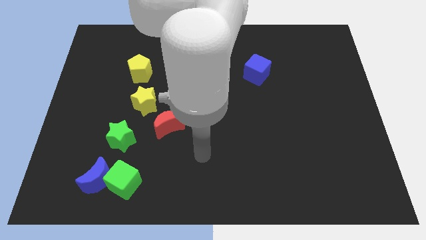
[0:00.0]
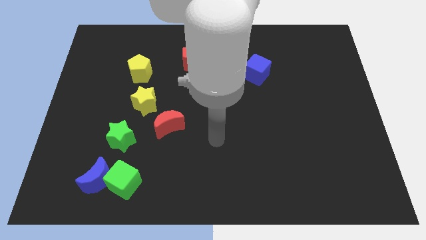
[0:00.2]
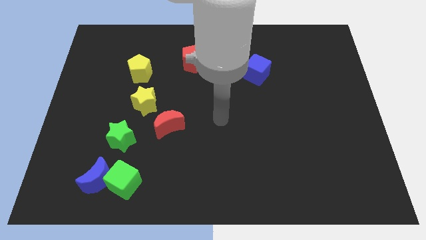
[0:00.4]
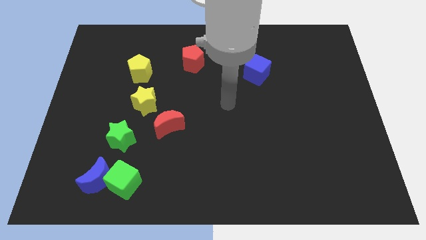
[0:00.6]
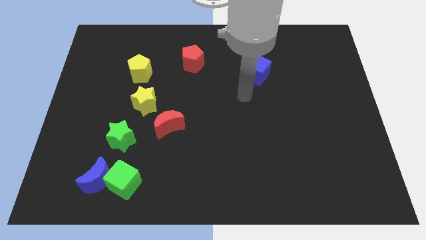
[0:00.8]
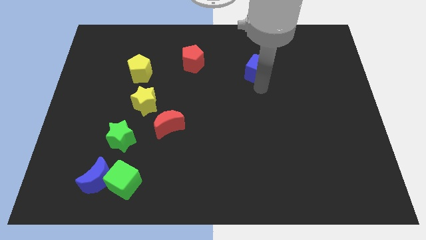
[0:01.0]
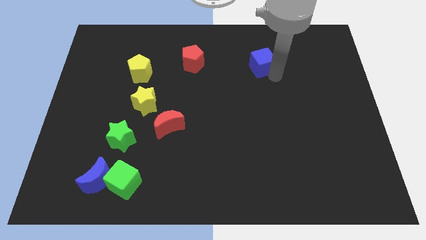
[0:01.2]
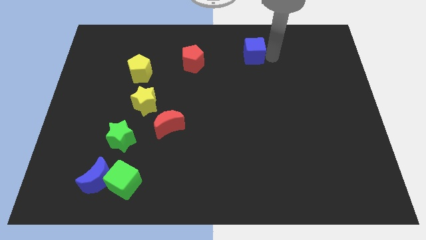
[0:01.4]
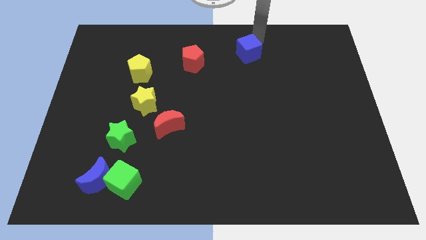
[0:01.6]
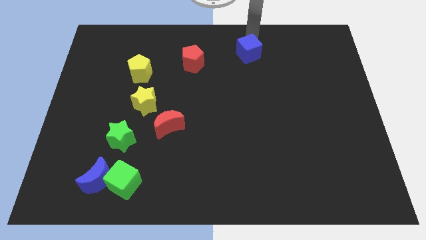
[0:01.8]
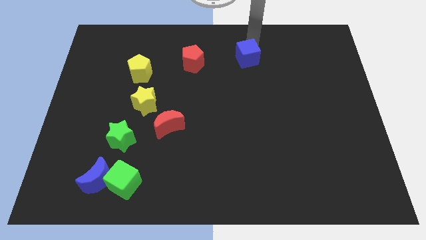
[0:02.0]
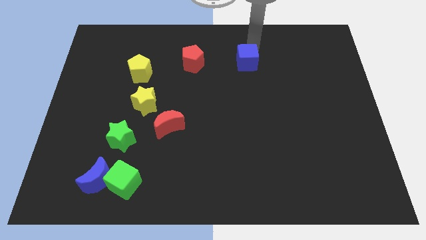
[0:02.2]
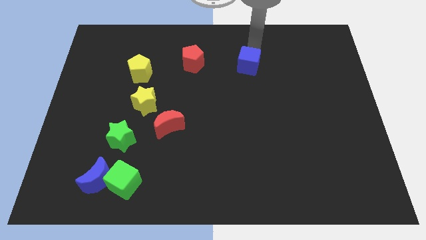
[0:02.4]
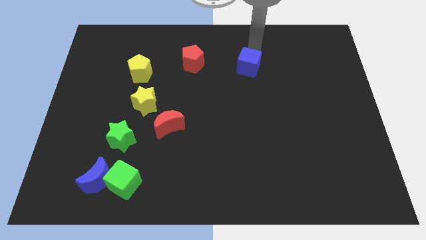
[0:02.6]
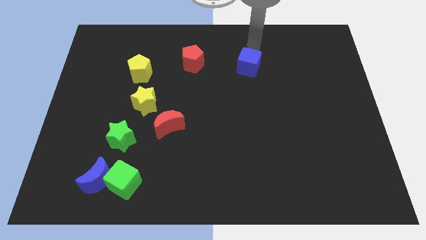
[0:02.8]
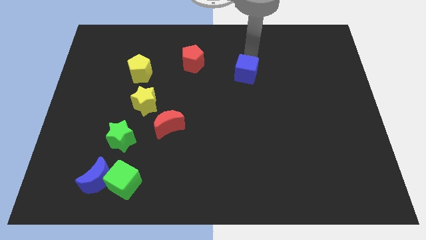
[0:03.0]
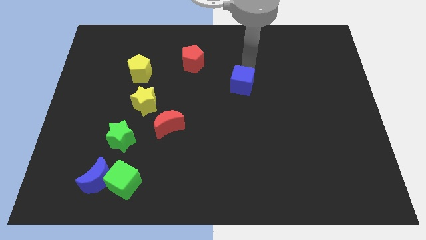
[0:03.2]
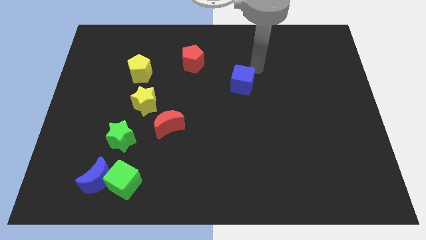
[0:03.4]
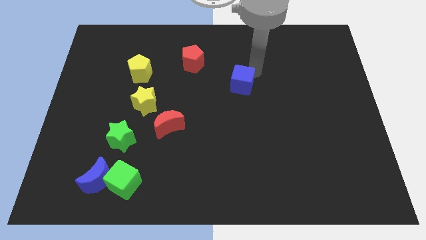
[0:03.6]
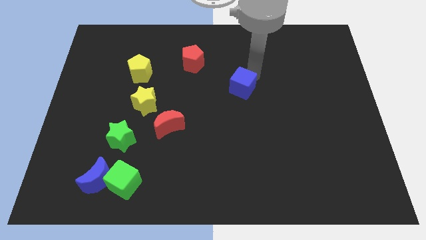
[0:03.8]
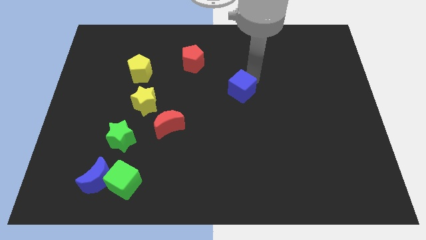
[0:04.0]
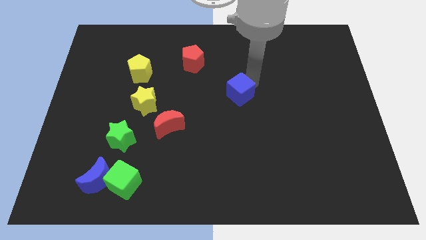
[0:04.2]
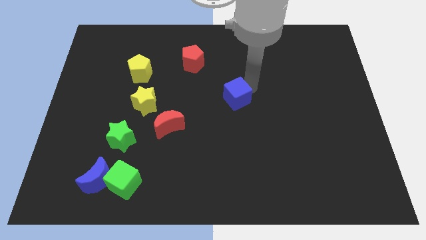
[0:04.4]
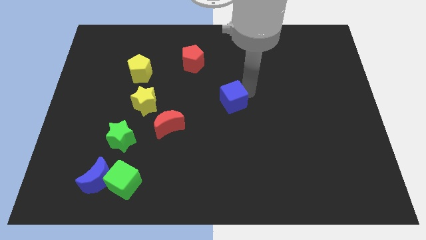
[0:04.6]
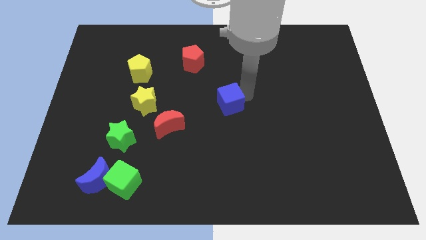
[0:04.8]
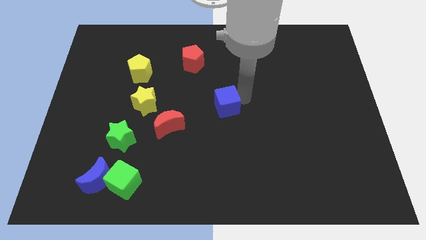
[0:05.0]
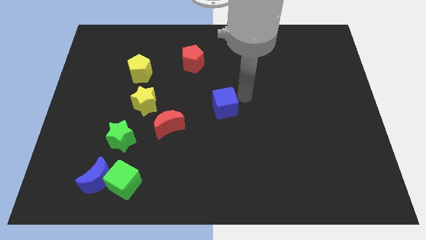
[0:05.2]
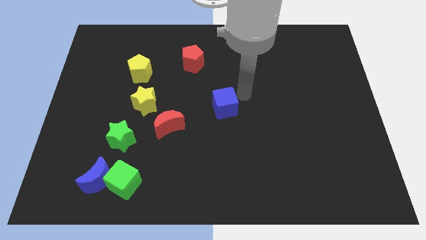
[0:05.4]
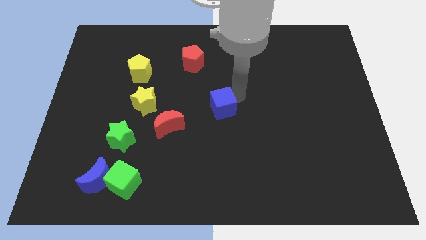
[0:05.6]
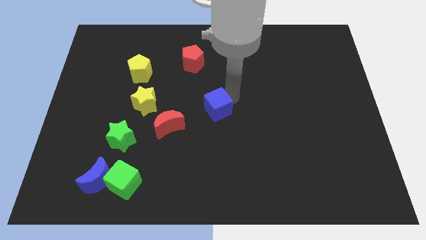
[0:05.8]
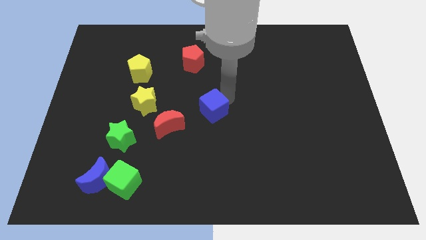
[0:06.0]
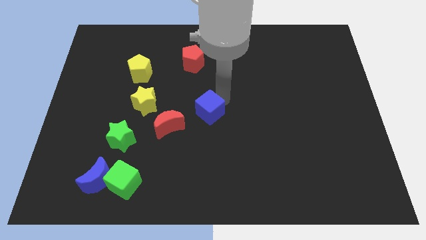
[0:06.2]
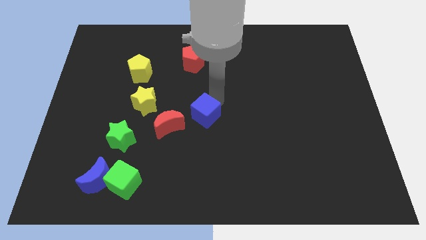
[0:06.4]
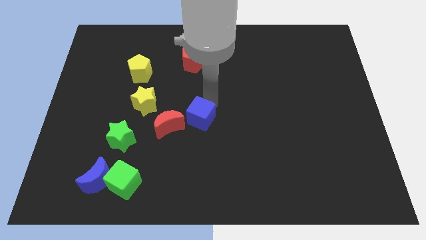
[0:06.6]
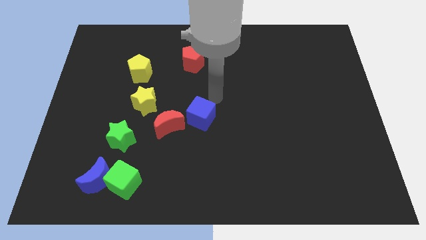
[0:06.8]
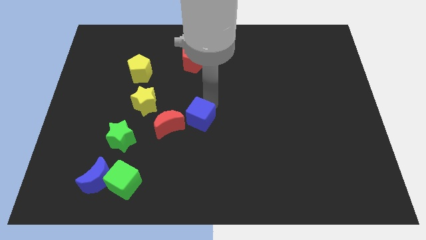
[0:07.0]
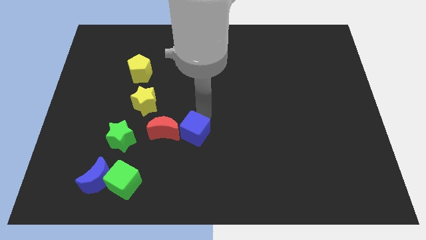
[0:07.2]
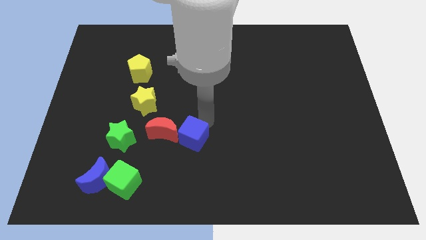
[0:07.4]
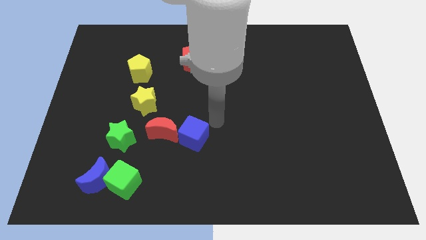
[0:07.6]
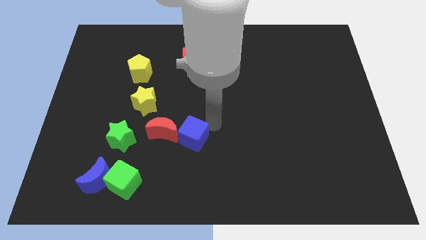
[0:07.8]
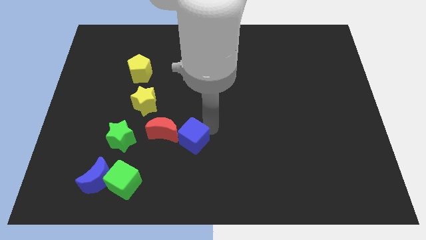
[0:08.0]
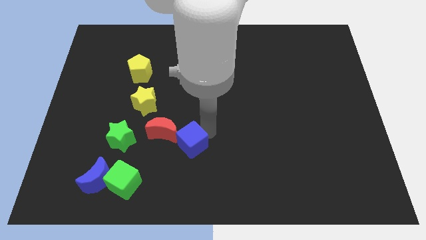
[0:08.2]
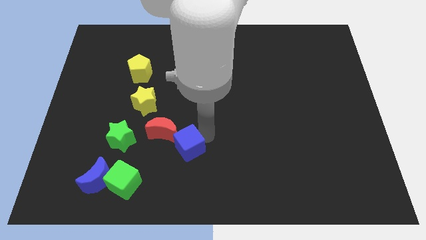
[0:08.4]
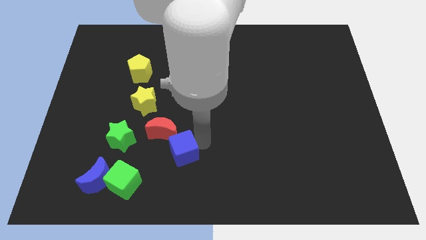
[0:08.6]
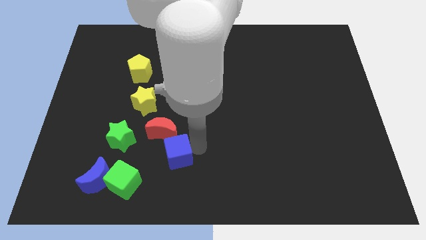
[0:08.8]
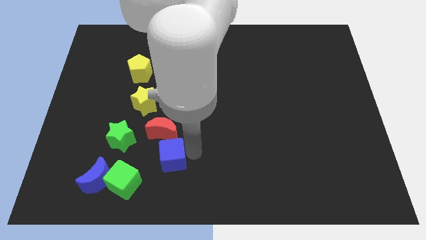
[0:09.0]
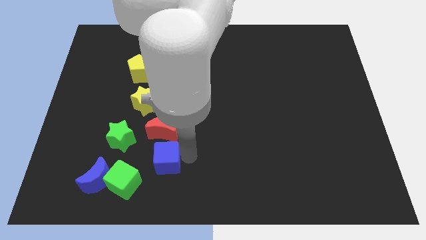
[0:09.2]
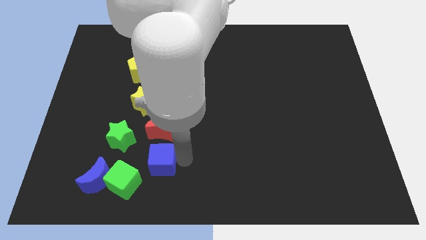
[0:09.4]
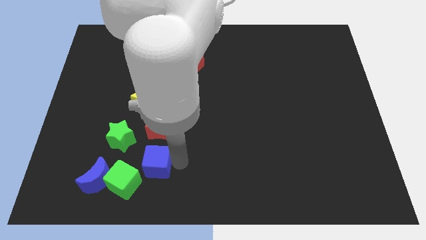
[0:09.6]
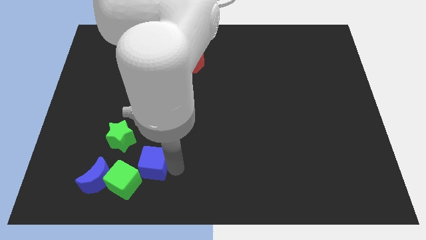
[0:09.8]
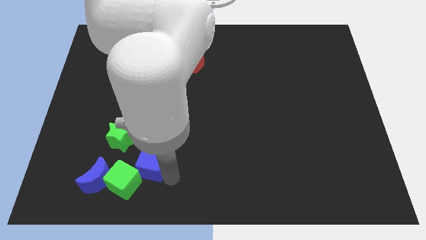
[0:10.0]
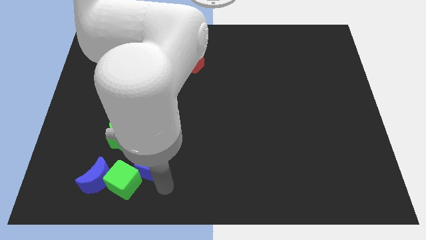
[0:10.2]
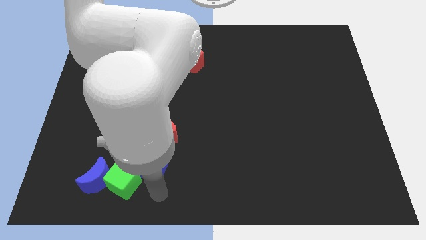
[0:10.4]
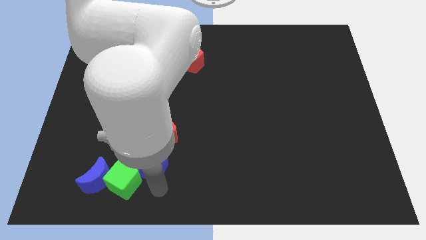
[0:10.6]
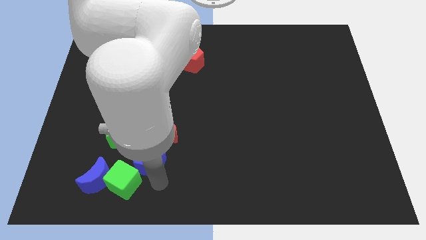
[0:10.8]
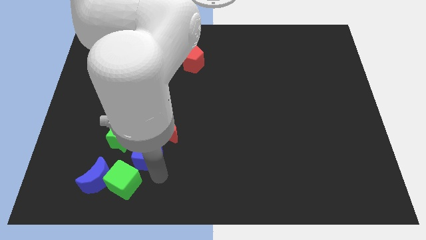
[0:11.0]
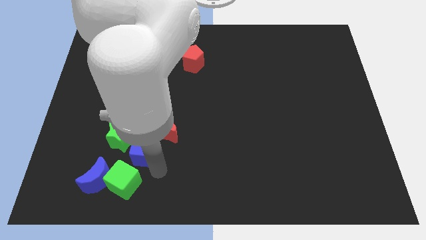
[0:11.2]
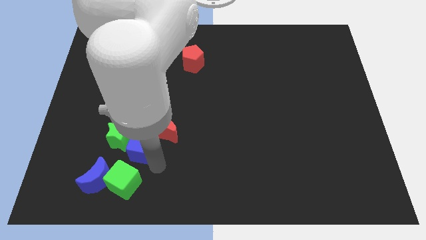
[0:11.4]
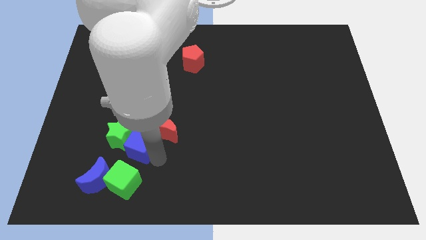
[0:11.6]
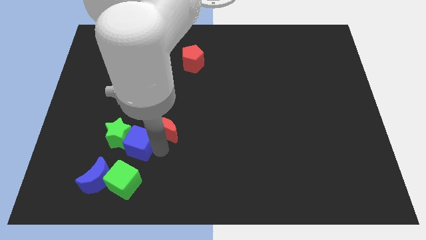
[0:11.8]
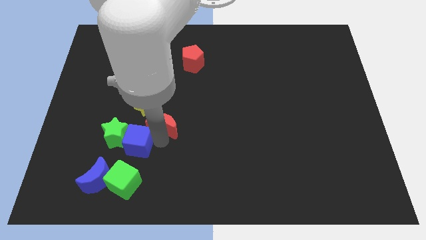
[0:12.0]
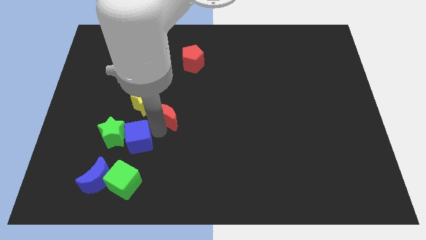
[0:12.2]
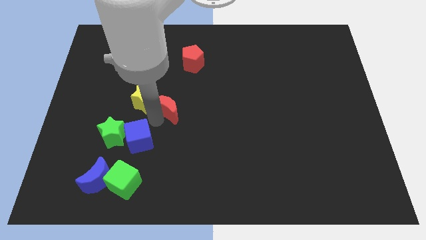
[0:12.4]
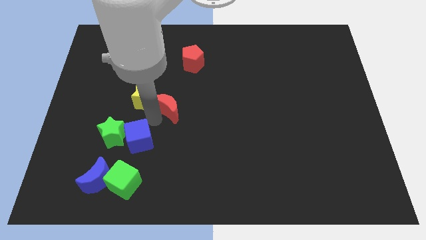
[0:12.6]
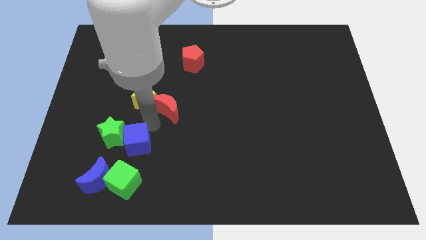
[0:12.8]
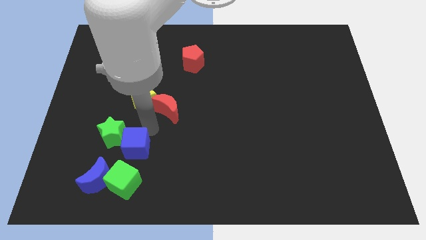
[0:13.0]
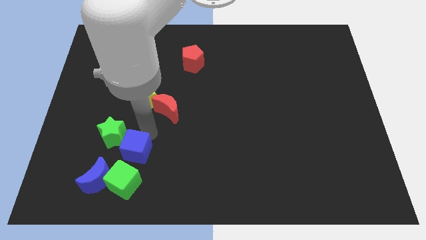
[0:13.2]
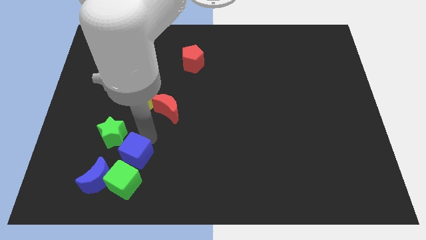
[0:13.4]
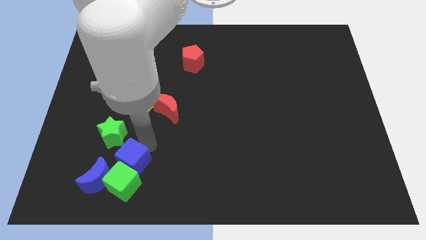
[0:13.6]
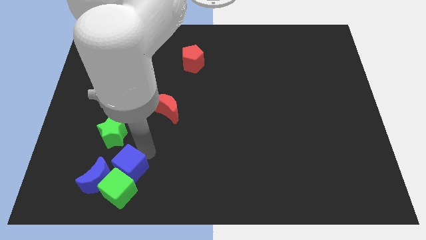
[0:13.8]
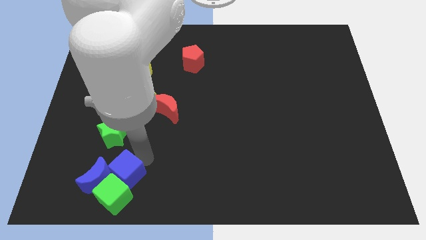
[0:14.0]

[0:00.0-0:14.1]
move the blue cube close to the blue moon
